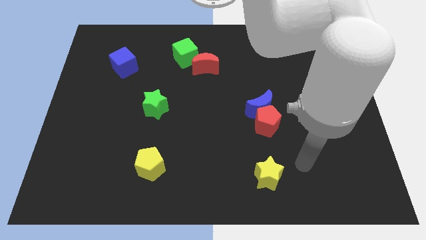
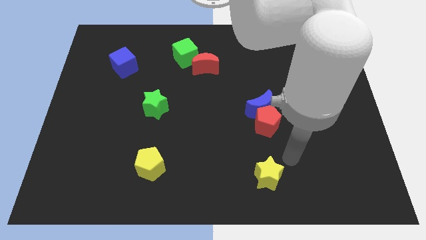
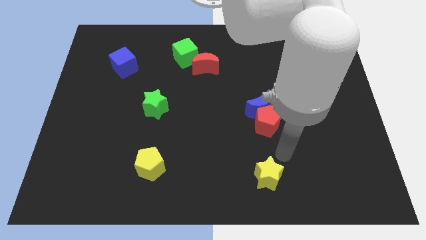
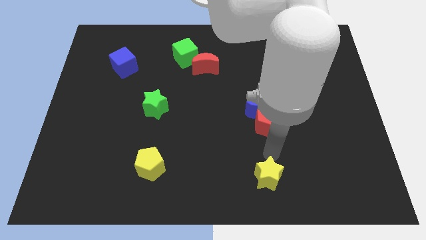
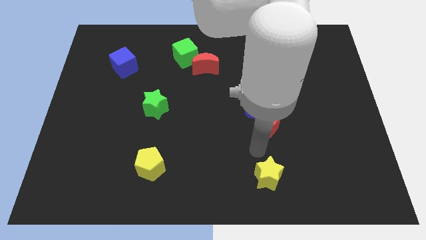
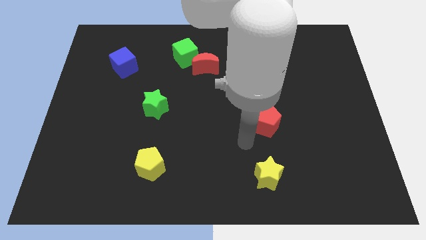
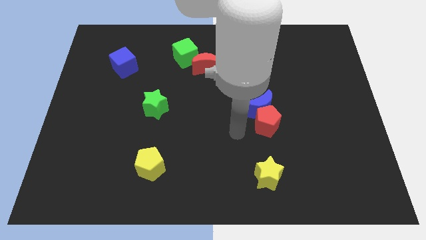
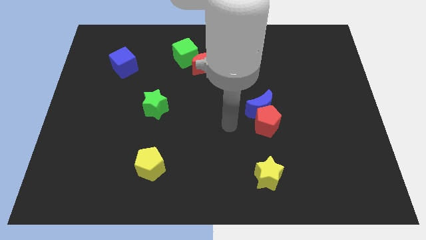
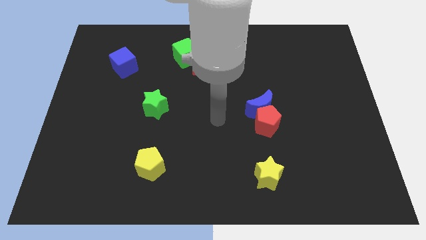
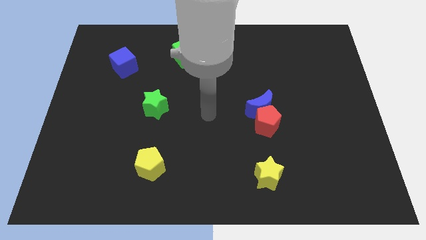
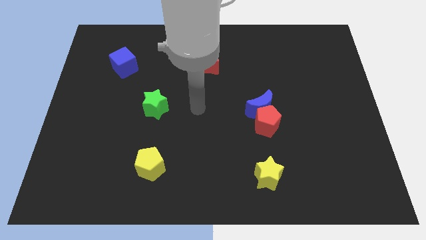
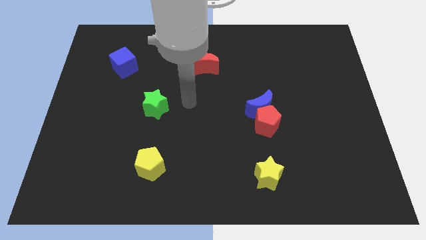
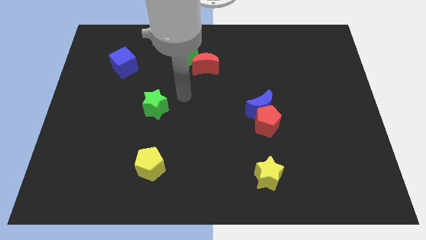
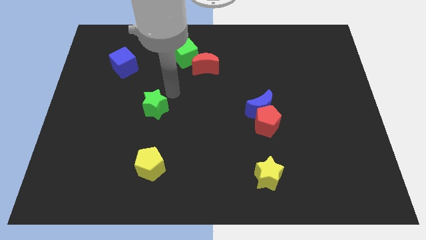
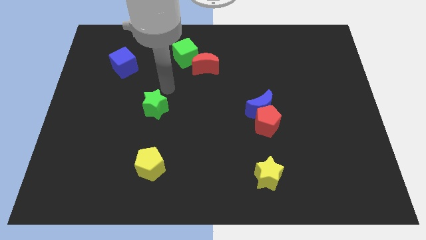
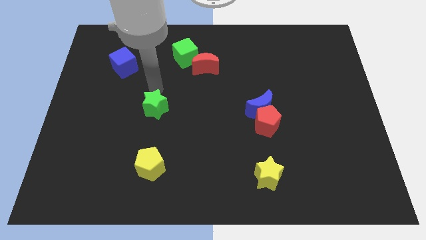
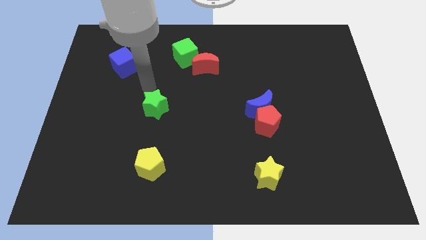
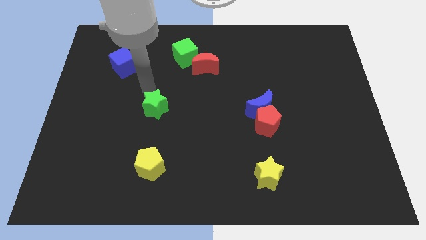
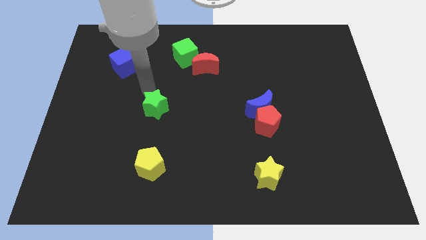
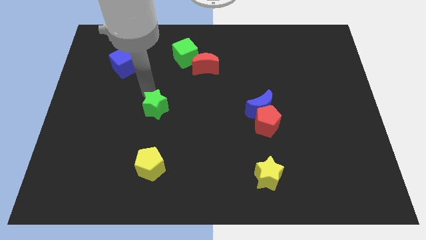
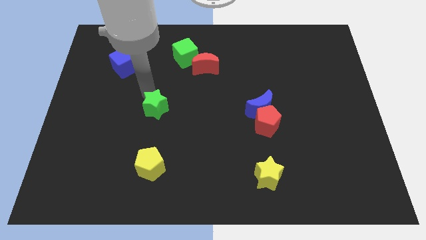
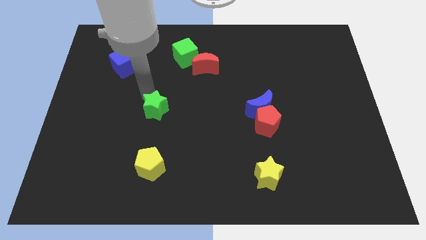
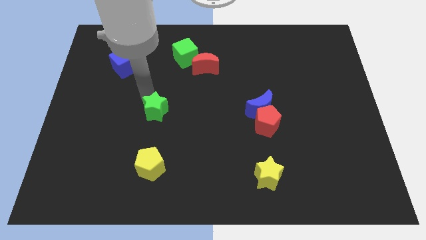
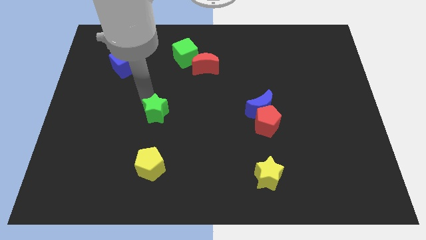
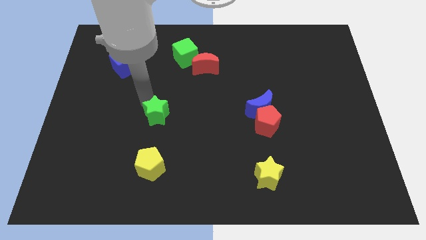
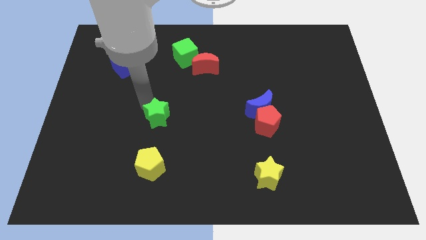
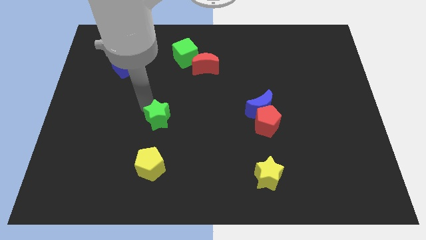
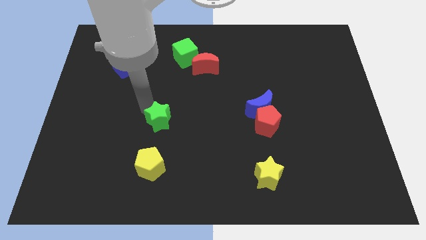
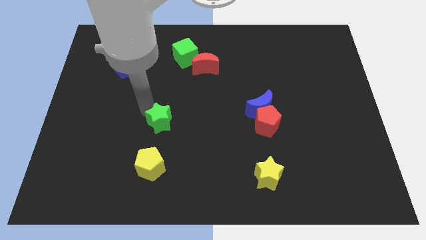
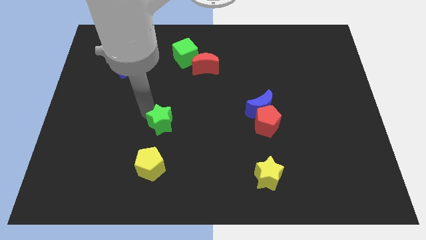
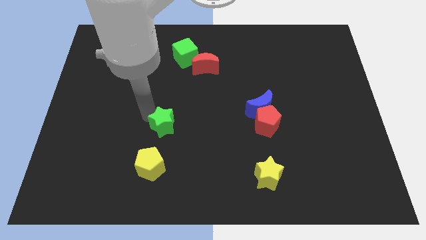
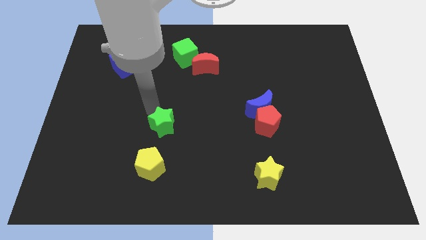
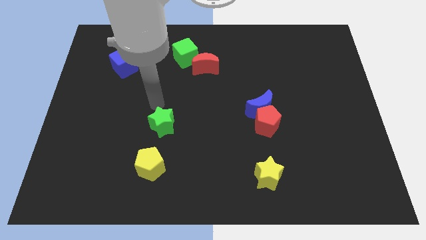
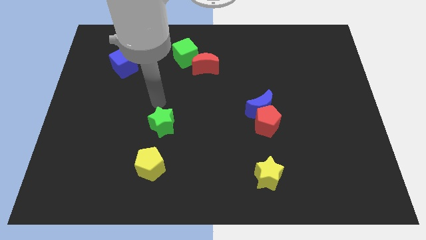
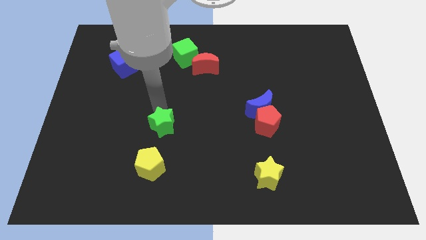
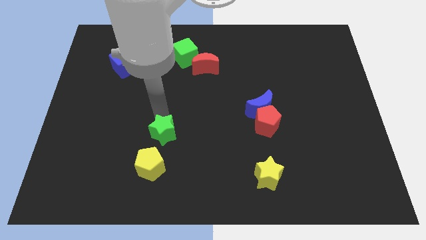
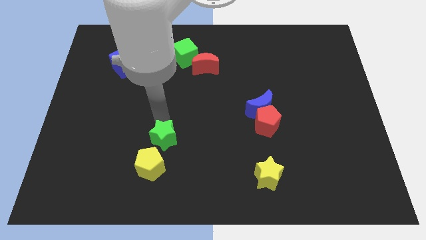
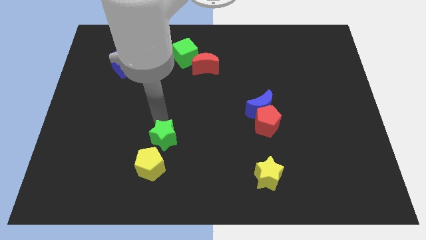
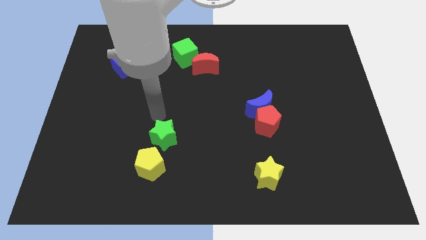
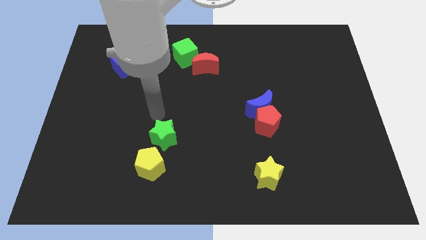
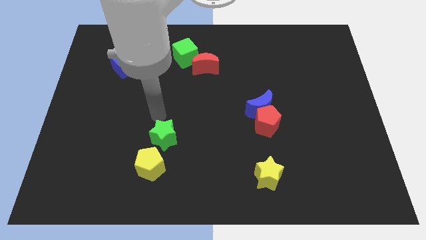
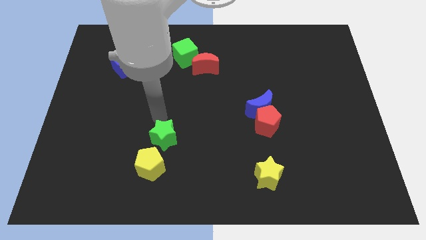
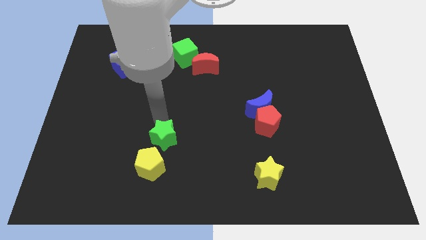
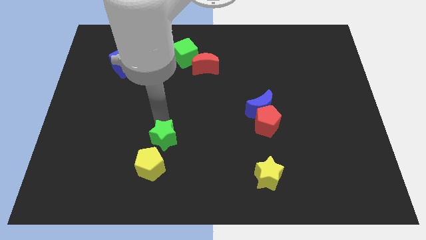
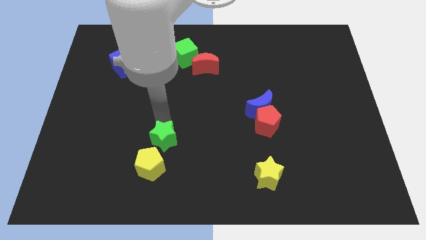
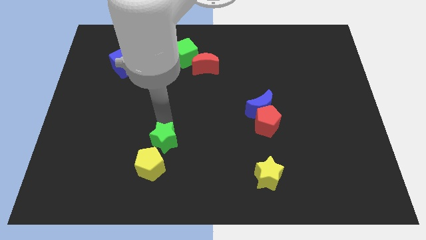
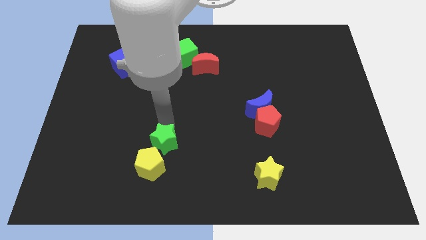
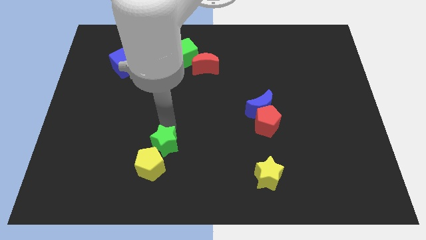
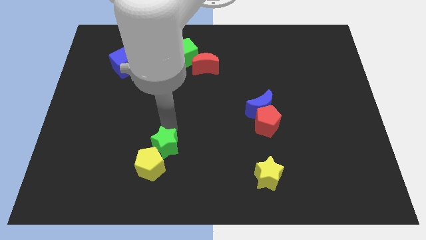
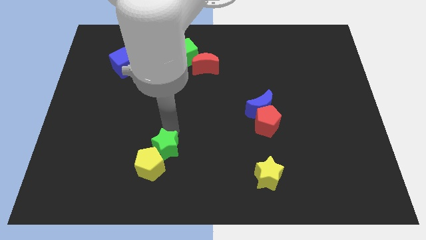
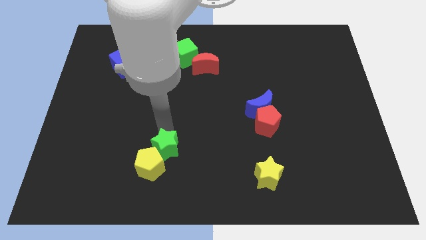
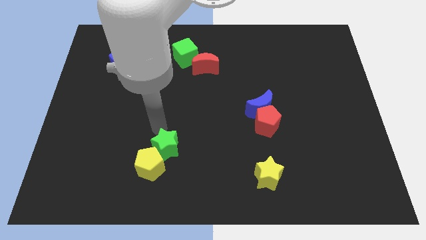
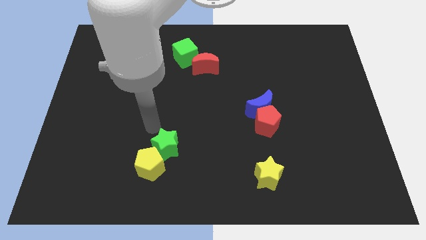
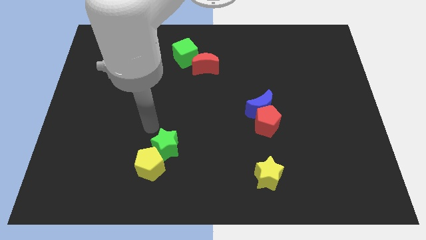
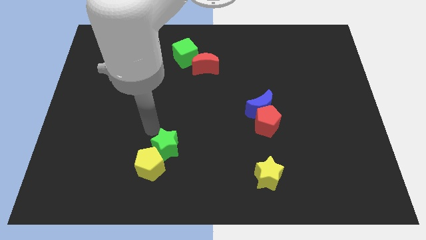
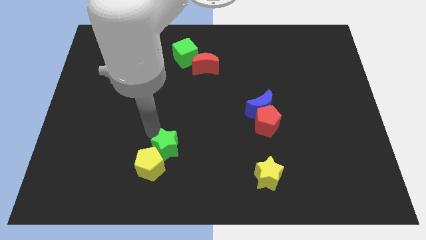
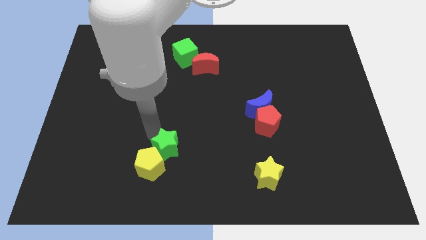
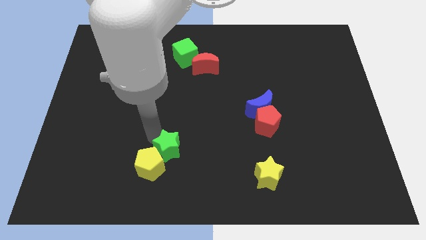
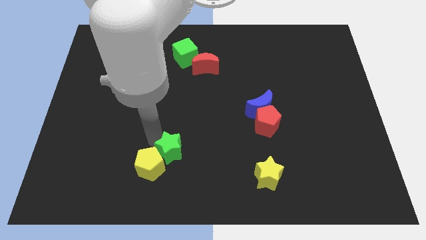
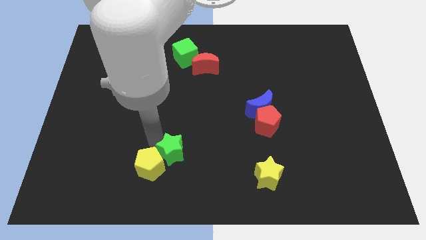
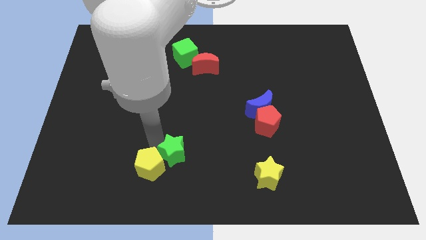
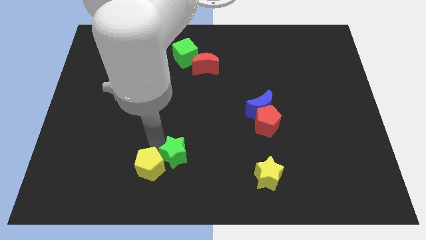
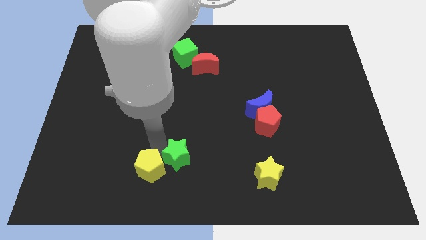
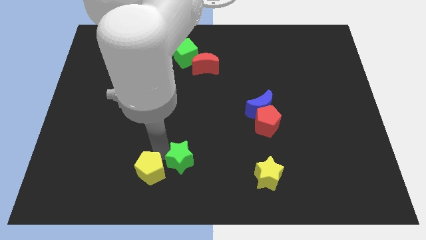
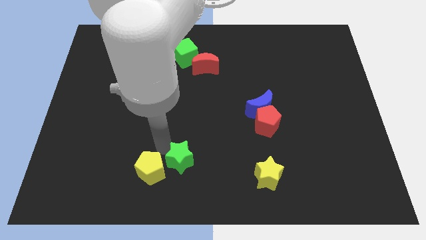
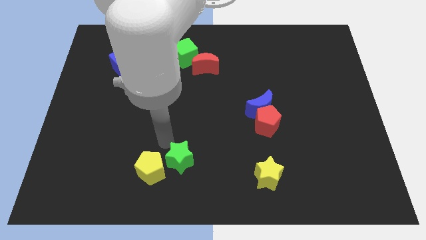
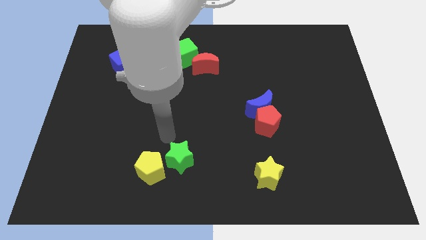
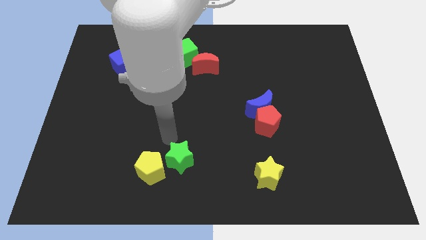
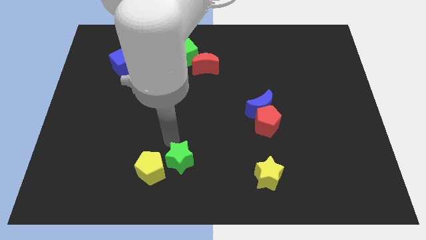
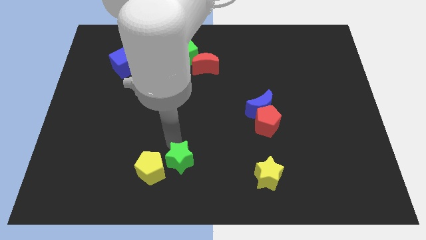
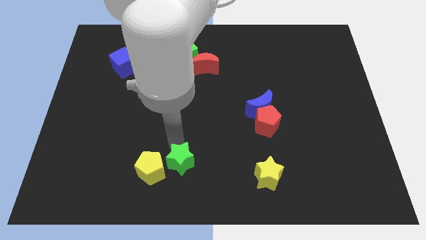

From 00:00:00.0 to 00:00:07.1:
push the green star to the bottom
